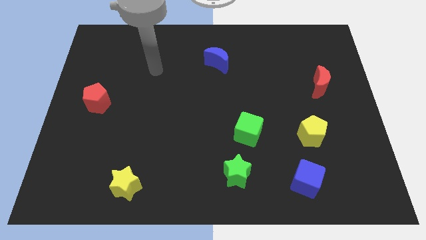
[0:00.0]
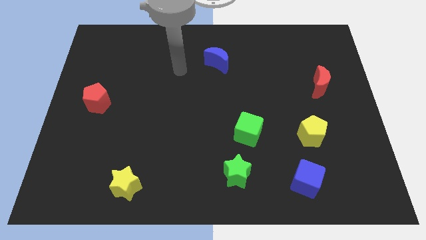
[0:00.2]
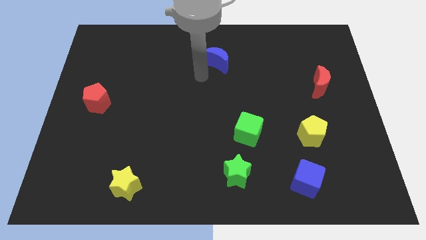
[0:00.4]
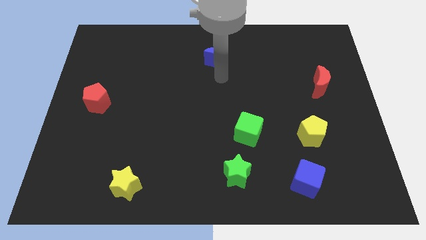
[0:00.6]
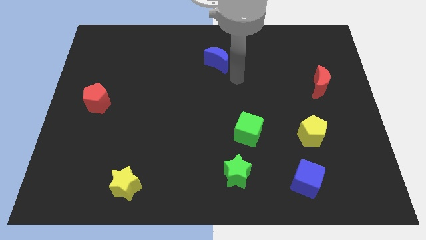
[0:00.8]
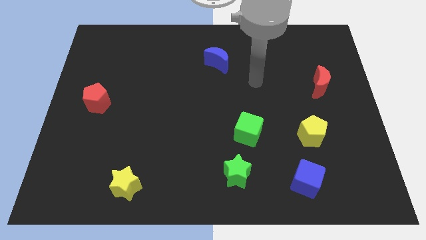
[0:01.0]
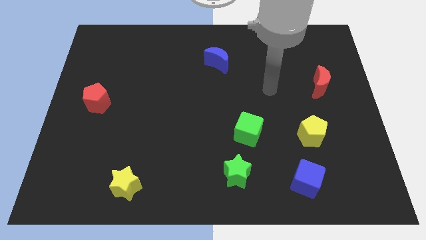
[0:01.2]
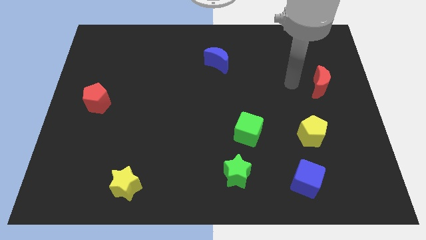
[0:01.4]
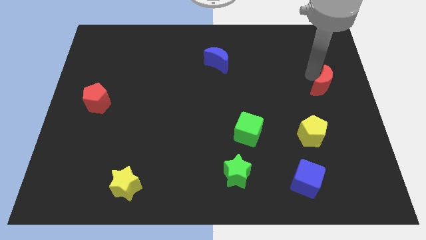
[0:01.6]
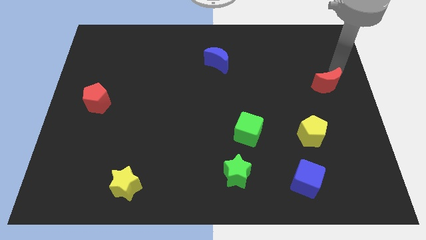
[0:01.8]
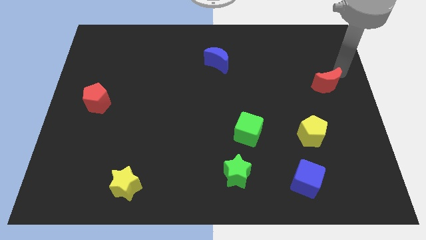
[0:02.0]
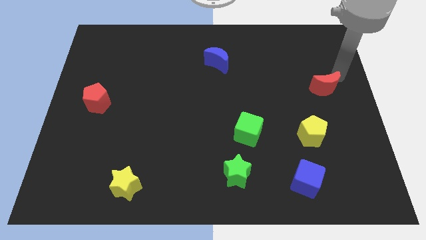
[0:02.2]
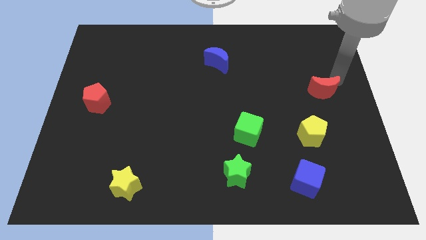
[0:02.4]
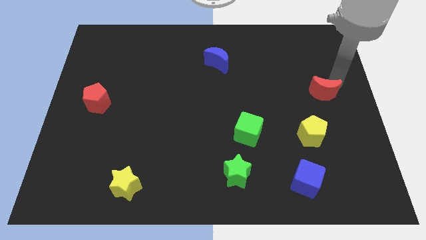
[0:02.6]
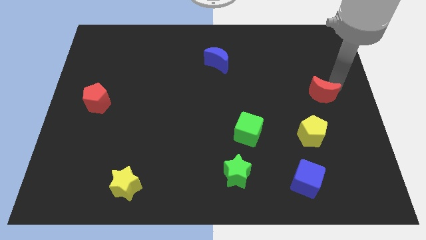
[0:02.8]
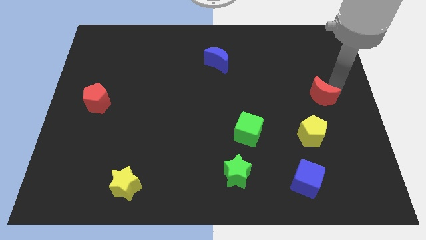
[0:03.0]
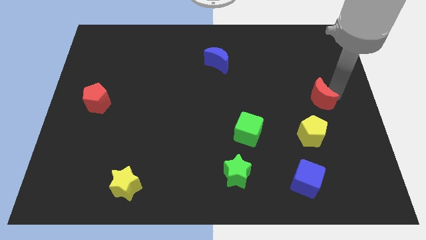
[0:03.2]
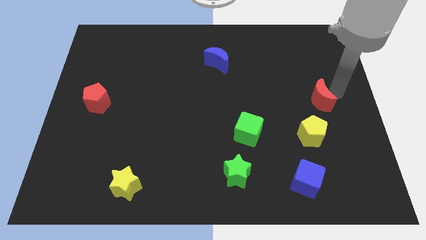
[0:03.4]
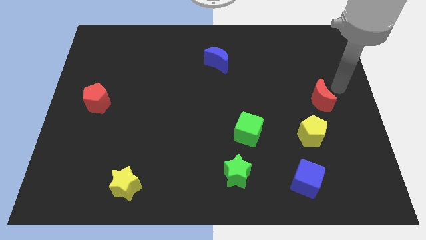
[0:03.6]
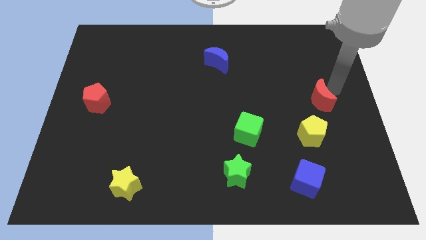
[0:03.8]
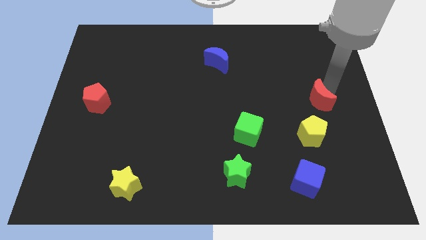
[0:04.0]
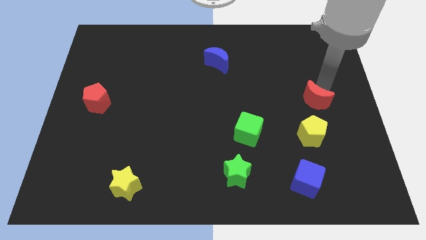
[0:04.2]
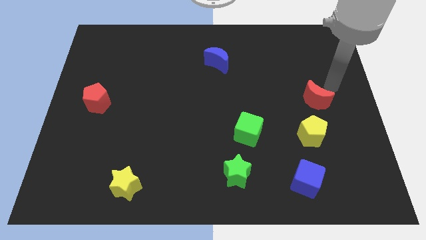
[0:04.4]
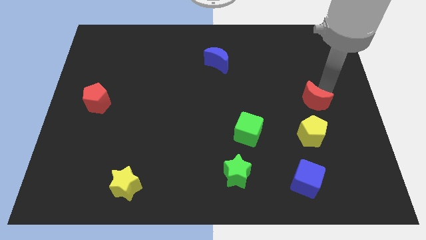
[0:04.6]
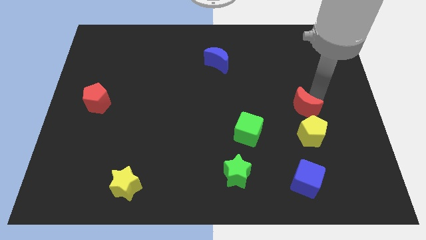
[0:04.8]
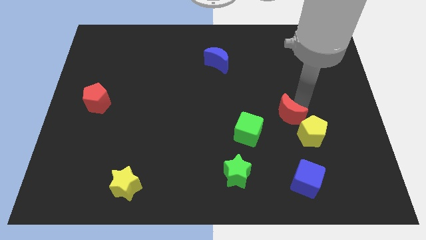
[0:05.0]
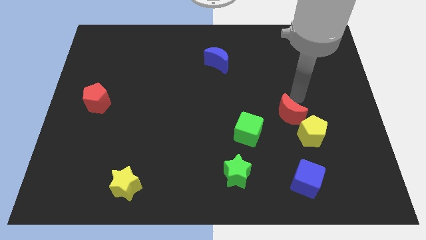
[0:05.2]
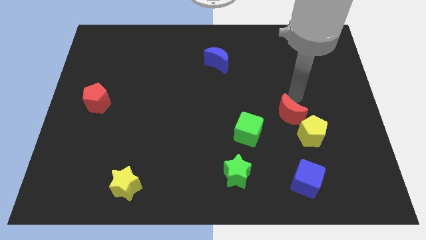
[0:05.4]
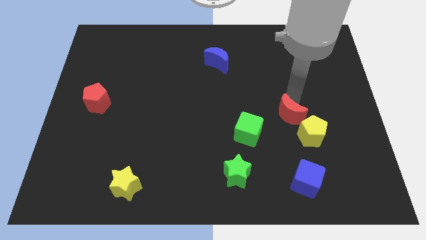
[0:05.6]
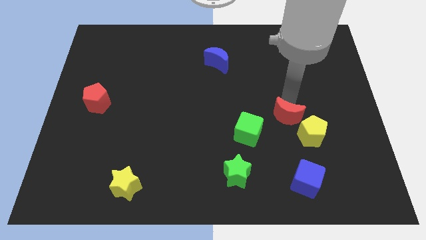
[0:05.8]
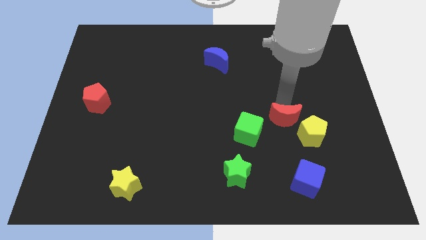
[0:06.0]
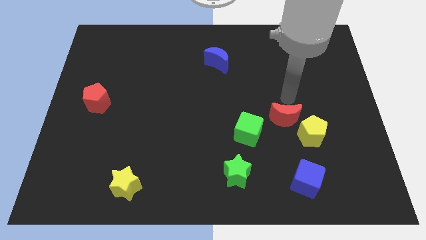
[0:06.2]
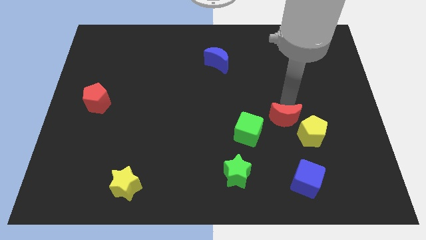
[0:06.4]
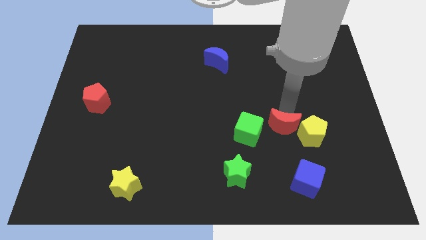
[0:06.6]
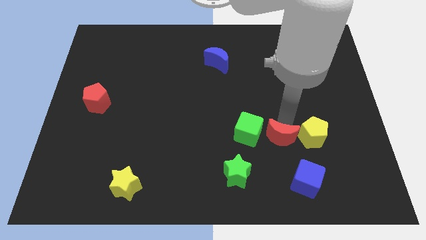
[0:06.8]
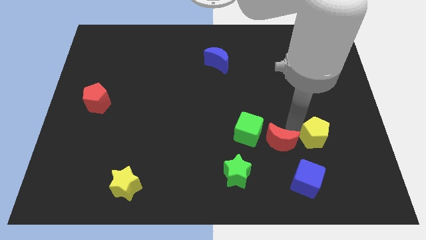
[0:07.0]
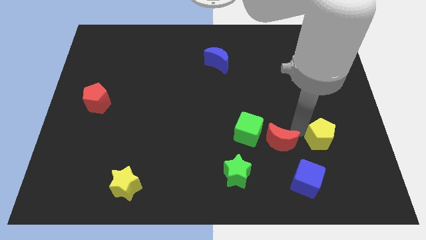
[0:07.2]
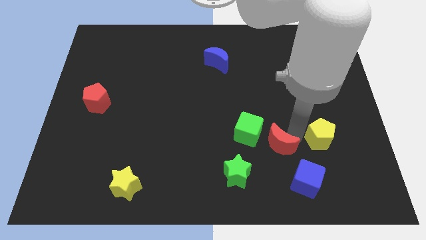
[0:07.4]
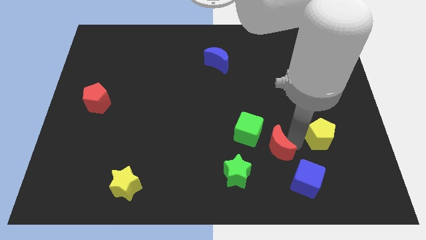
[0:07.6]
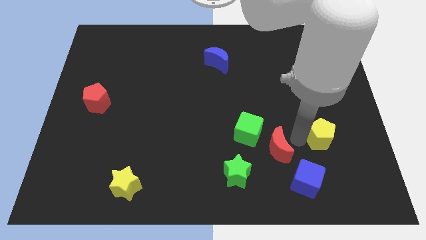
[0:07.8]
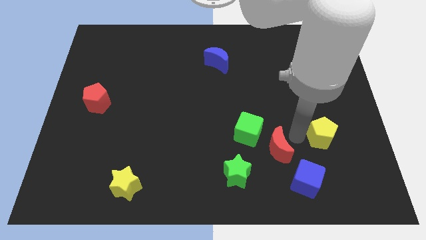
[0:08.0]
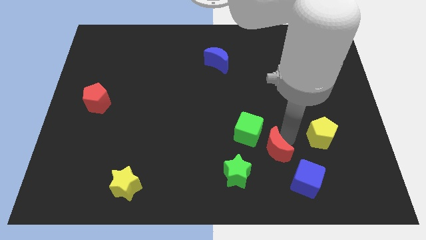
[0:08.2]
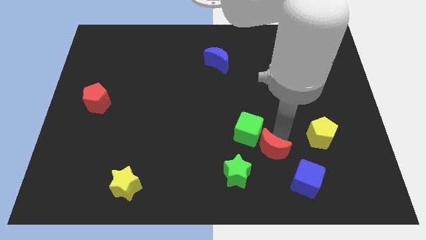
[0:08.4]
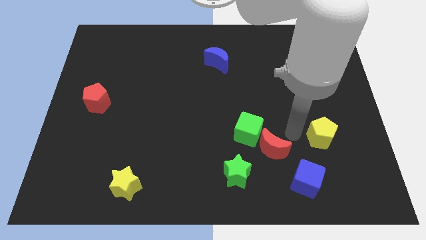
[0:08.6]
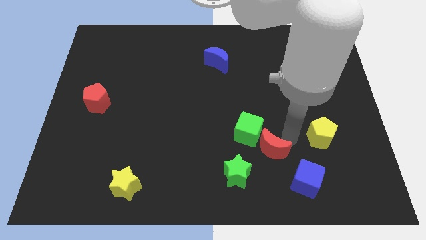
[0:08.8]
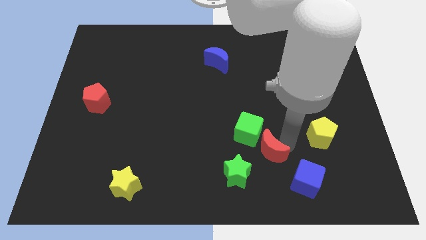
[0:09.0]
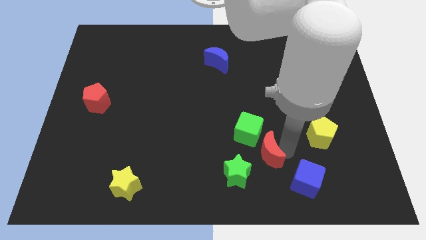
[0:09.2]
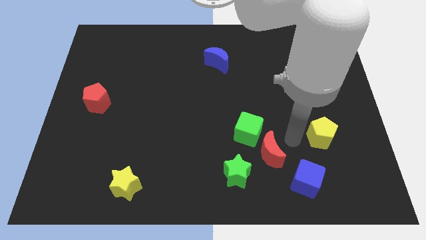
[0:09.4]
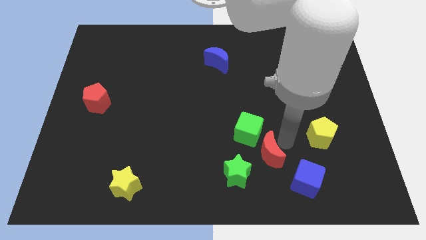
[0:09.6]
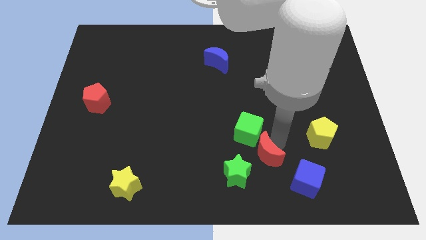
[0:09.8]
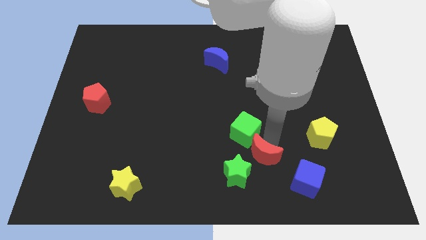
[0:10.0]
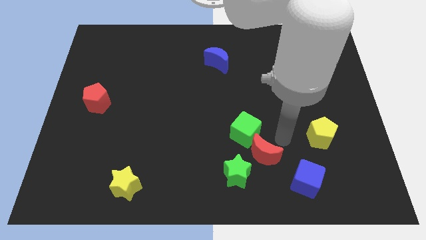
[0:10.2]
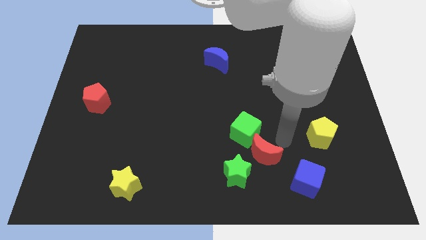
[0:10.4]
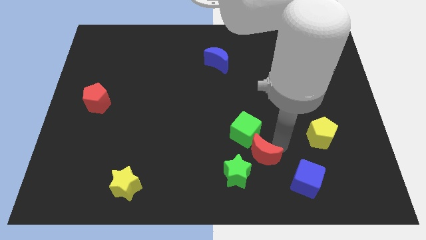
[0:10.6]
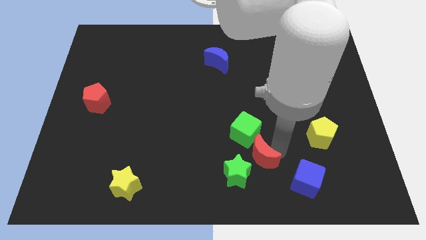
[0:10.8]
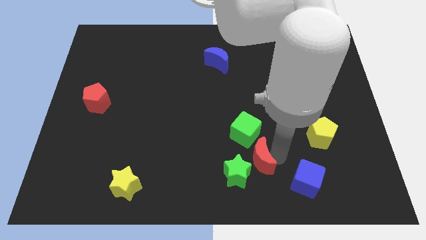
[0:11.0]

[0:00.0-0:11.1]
put the red moon to the green star

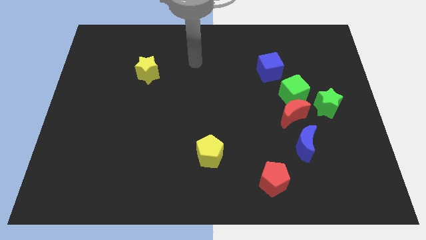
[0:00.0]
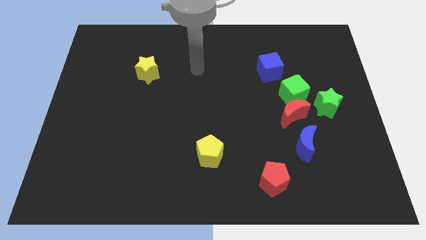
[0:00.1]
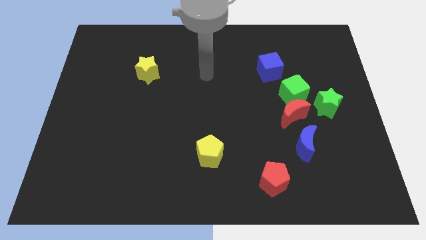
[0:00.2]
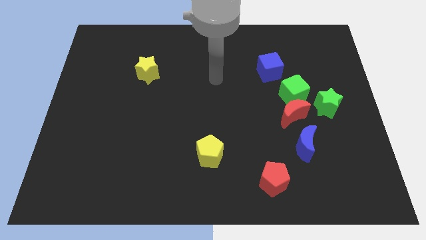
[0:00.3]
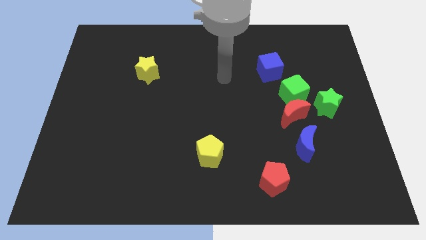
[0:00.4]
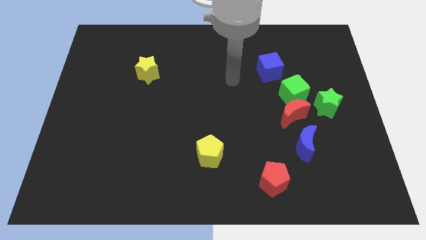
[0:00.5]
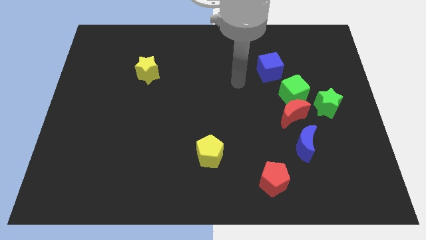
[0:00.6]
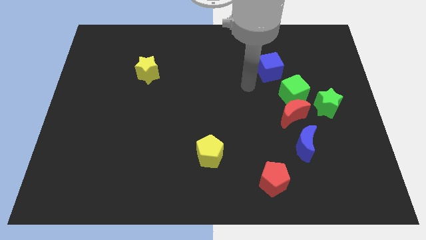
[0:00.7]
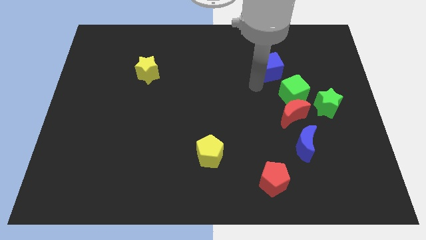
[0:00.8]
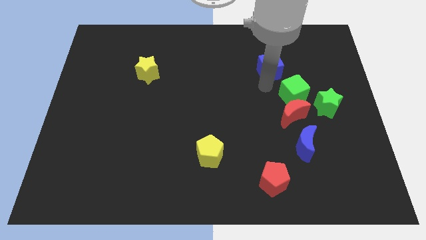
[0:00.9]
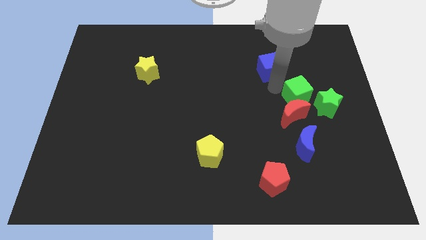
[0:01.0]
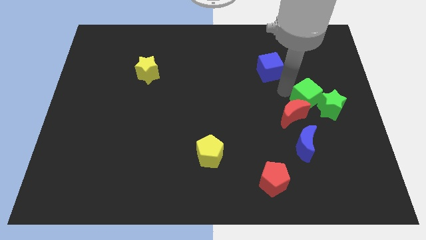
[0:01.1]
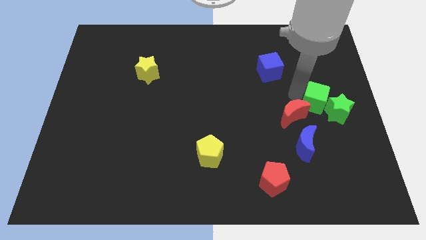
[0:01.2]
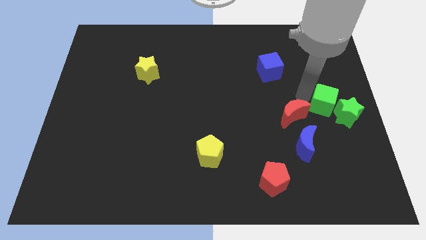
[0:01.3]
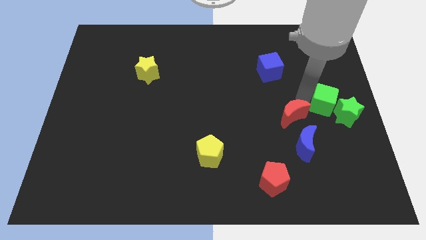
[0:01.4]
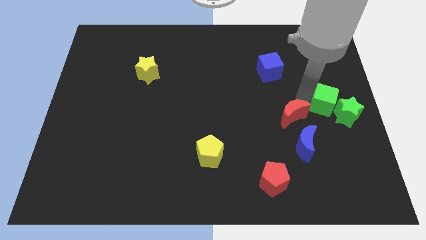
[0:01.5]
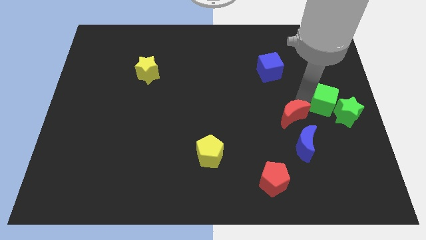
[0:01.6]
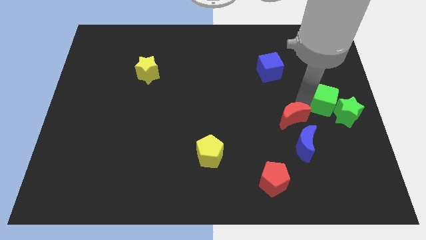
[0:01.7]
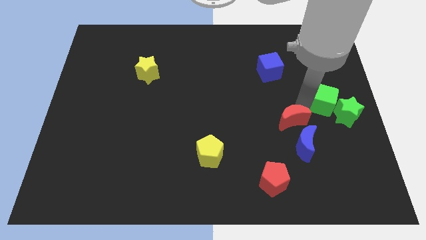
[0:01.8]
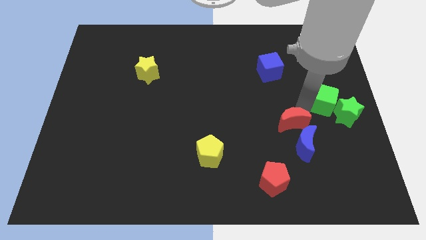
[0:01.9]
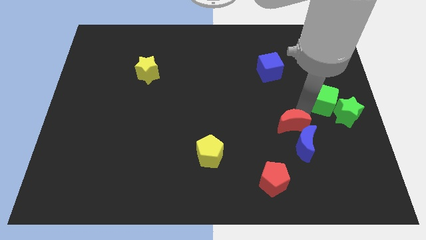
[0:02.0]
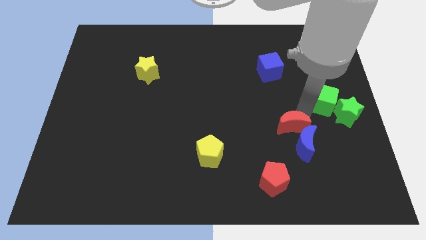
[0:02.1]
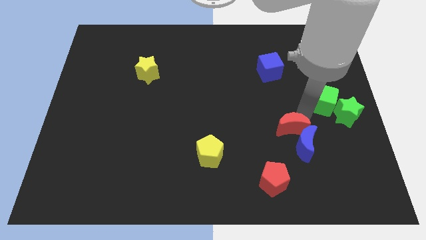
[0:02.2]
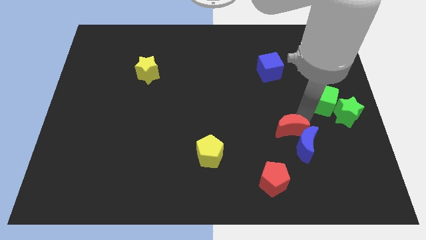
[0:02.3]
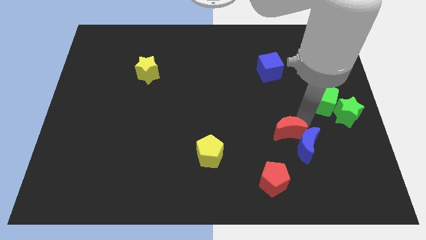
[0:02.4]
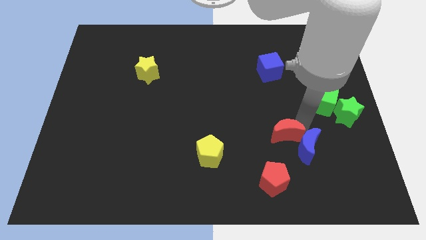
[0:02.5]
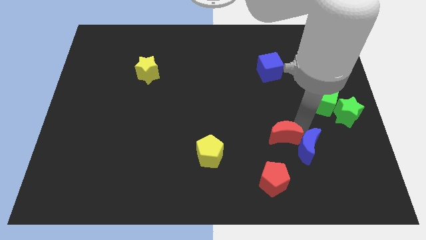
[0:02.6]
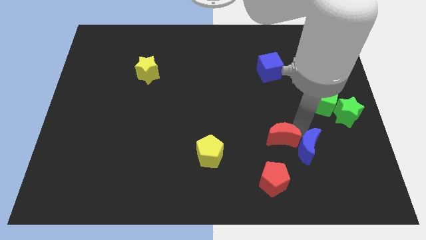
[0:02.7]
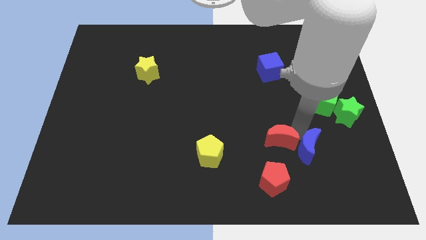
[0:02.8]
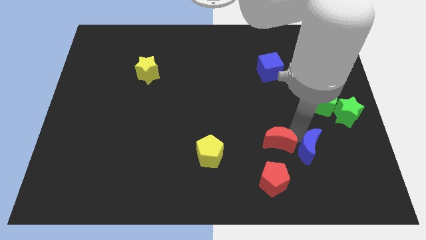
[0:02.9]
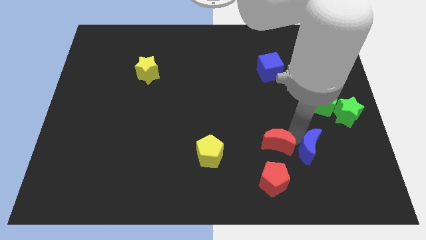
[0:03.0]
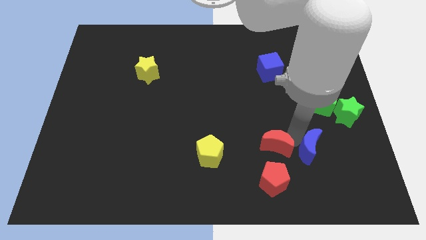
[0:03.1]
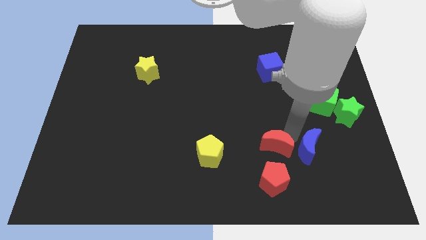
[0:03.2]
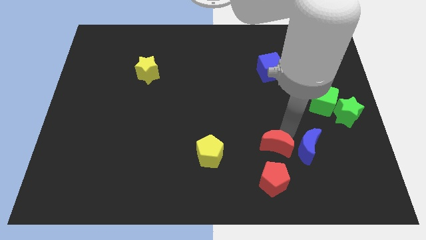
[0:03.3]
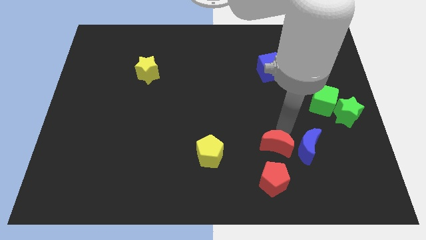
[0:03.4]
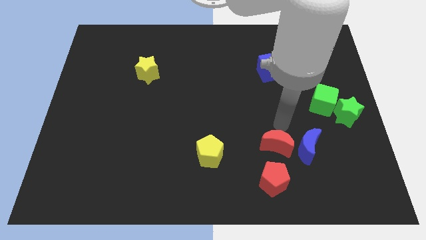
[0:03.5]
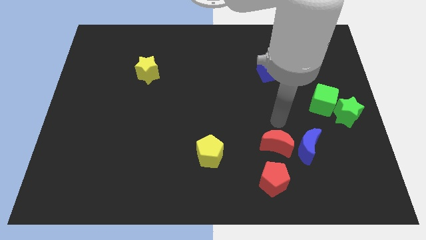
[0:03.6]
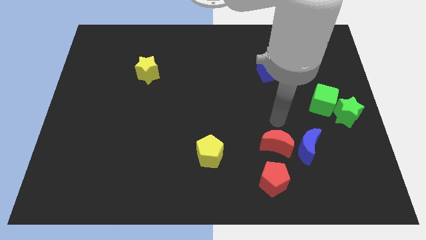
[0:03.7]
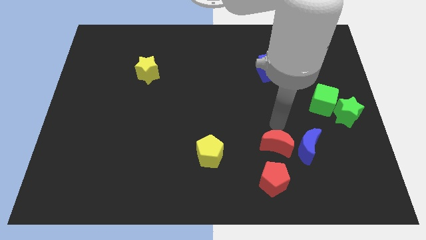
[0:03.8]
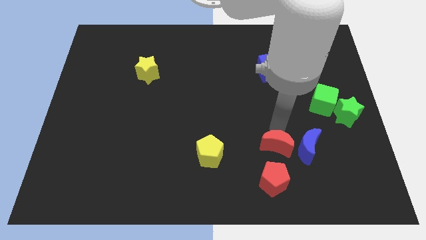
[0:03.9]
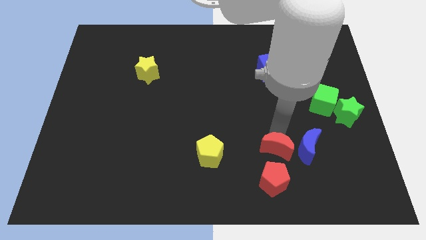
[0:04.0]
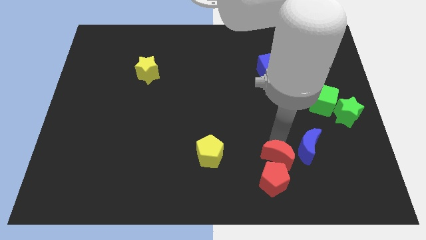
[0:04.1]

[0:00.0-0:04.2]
slide the red moon to the red pentagon
